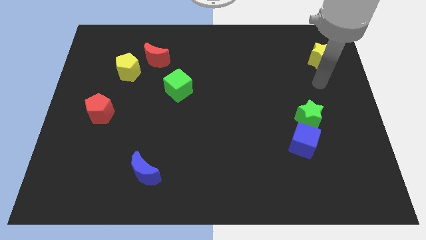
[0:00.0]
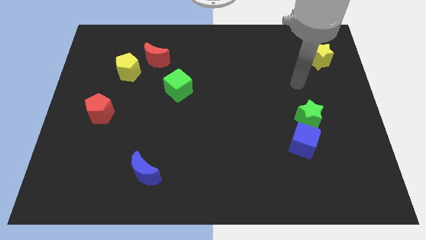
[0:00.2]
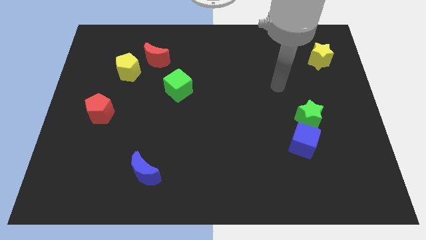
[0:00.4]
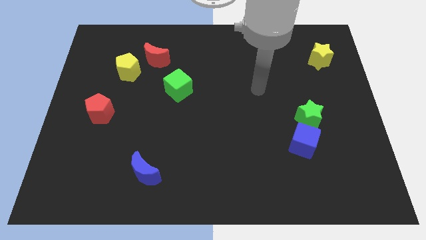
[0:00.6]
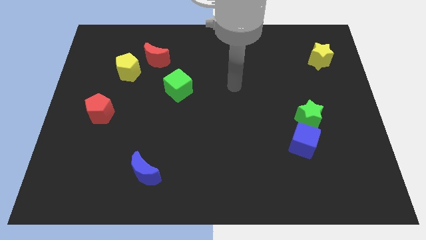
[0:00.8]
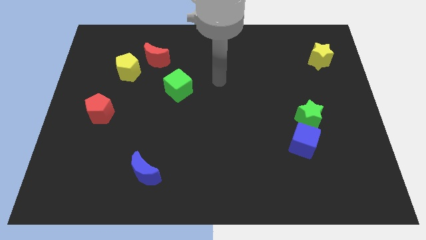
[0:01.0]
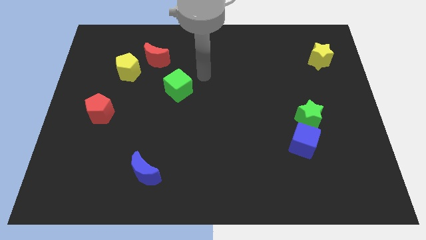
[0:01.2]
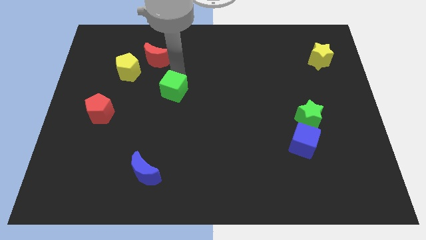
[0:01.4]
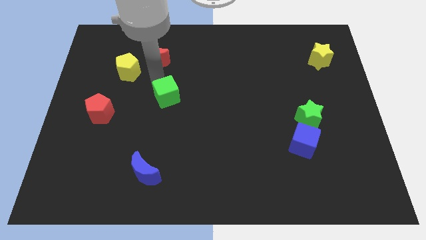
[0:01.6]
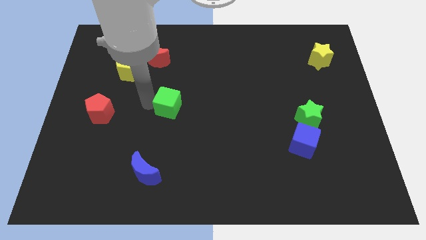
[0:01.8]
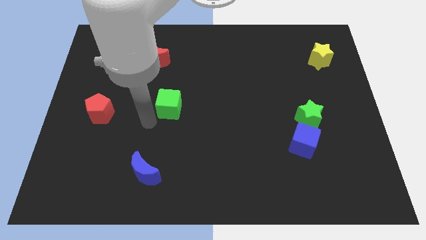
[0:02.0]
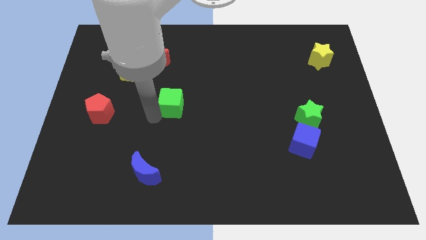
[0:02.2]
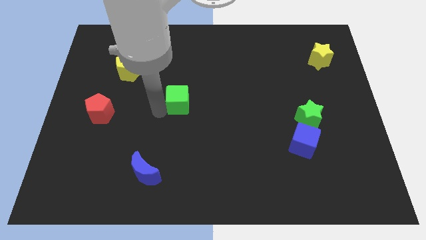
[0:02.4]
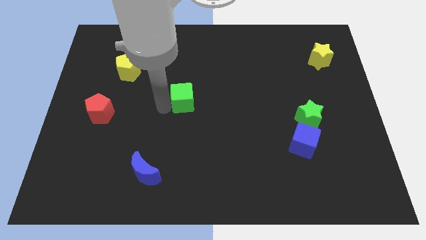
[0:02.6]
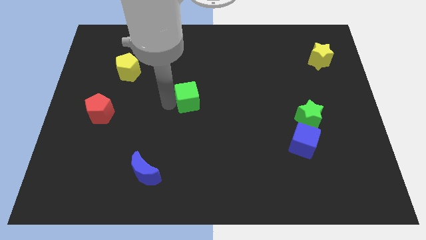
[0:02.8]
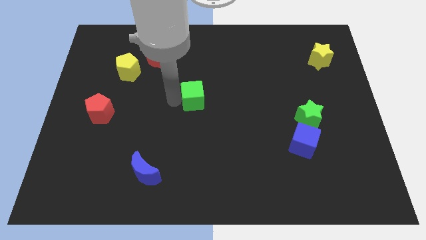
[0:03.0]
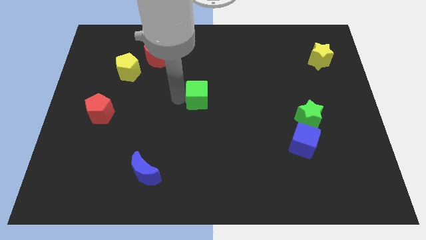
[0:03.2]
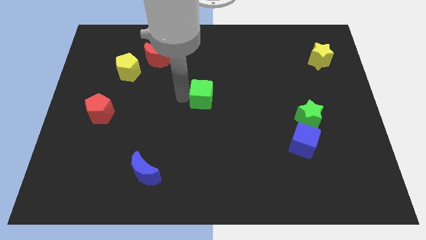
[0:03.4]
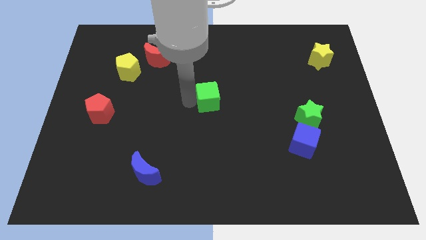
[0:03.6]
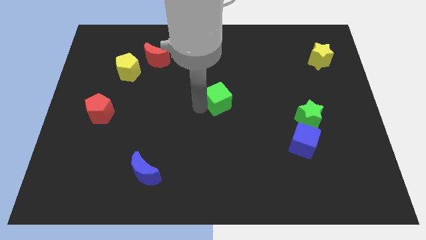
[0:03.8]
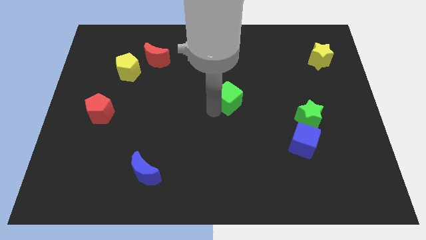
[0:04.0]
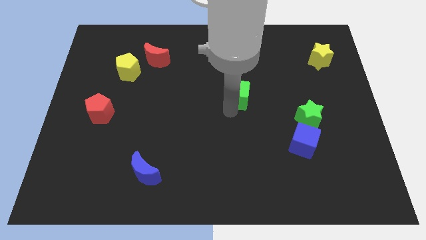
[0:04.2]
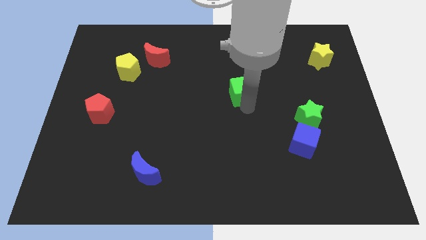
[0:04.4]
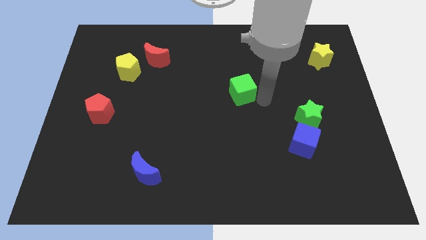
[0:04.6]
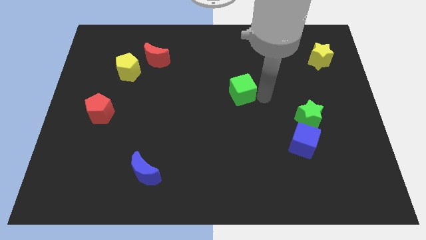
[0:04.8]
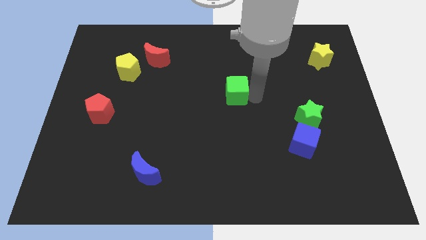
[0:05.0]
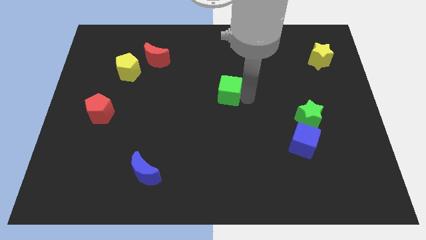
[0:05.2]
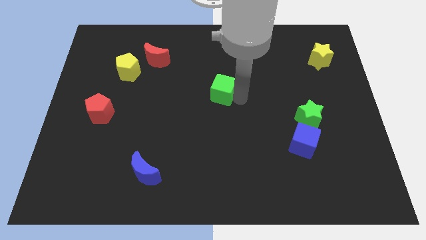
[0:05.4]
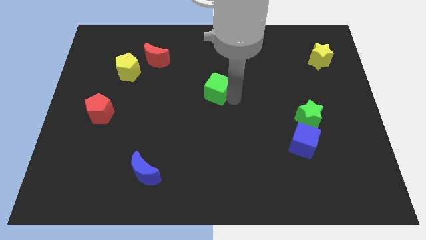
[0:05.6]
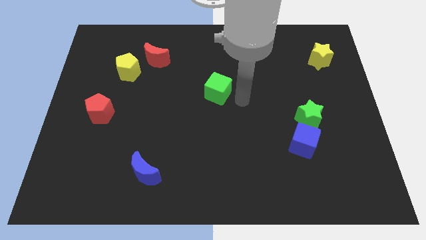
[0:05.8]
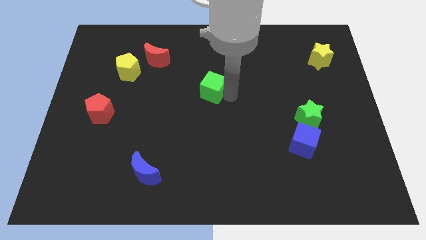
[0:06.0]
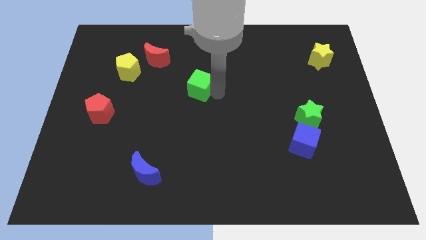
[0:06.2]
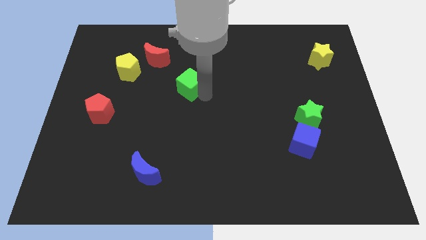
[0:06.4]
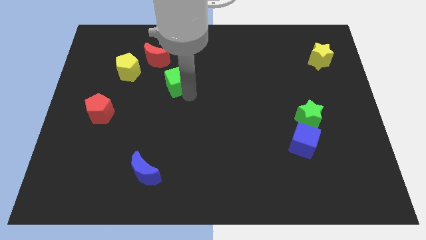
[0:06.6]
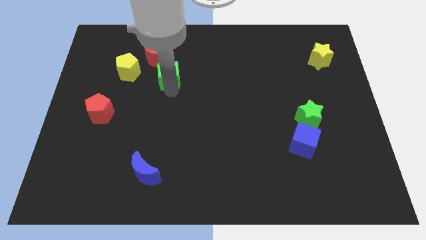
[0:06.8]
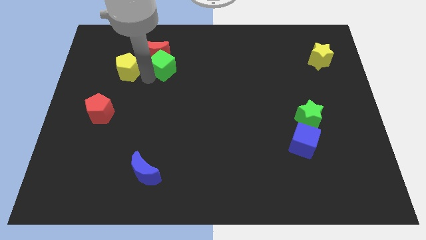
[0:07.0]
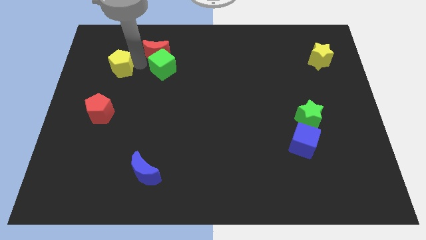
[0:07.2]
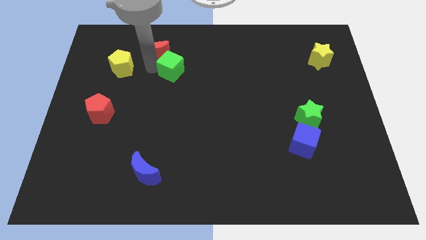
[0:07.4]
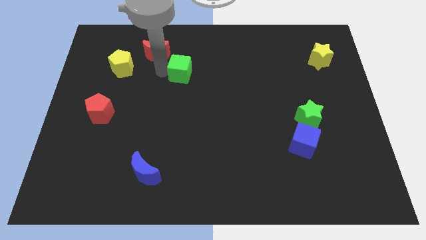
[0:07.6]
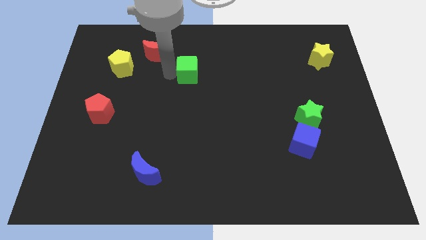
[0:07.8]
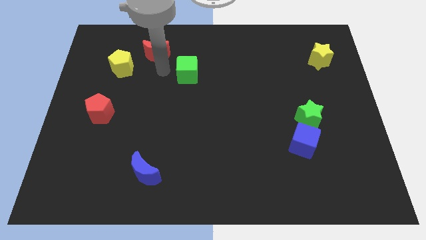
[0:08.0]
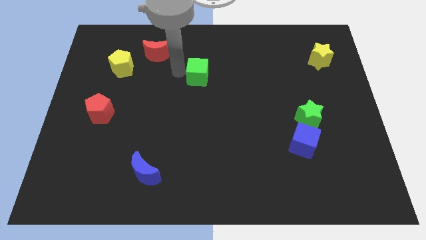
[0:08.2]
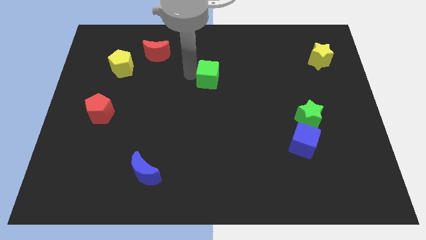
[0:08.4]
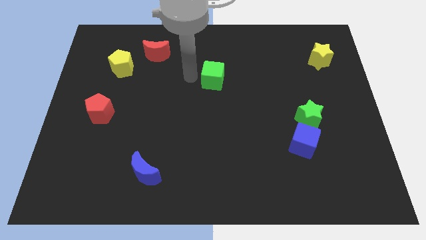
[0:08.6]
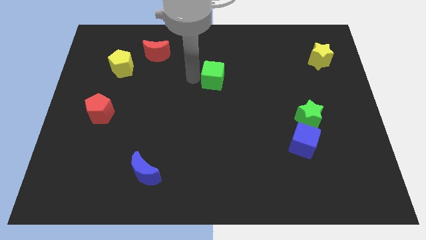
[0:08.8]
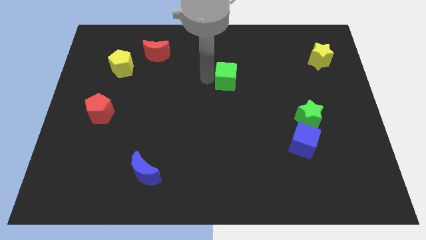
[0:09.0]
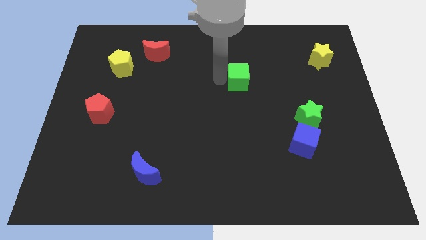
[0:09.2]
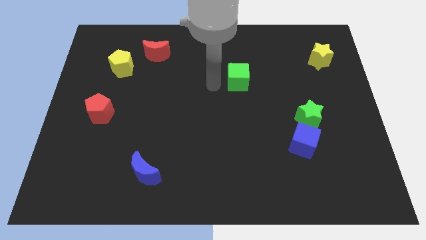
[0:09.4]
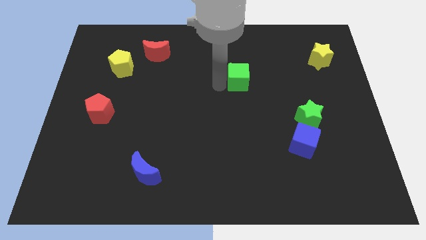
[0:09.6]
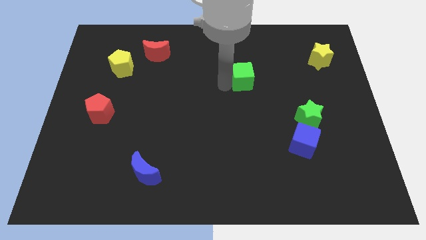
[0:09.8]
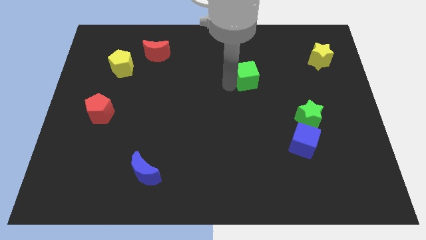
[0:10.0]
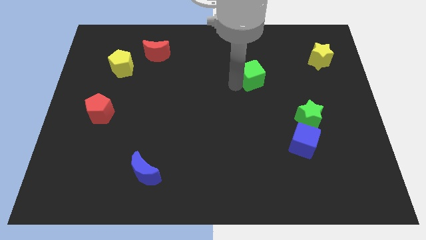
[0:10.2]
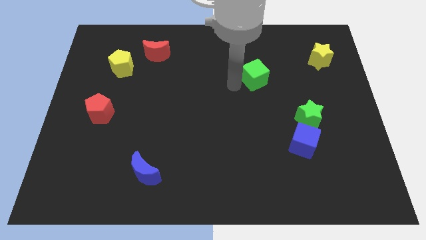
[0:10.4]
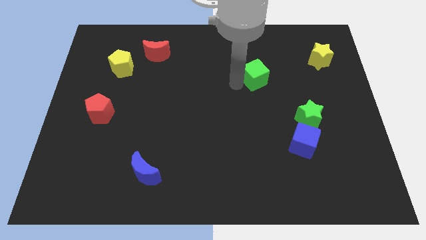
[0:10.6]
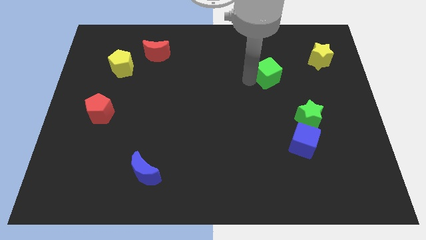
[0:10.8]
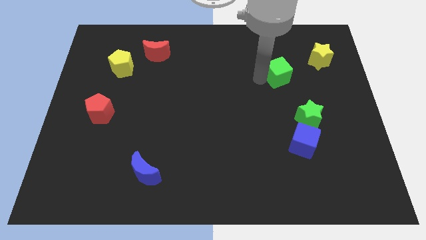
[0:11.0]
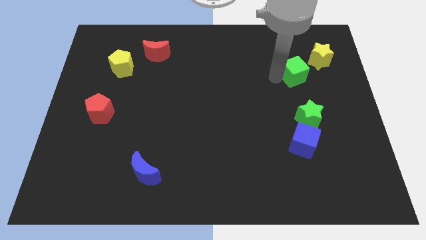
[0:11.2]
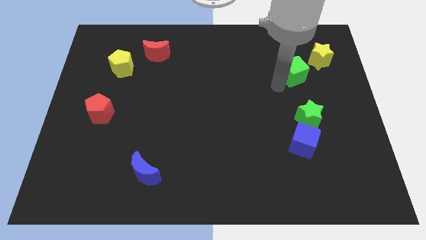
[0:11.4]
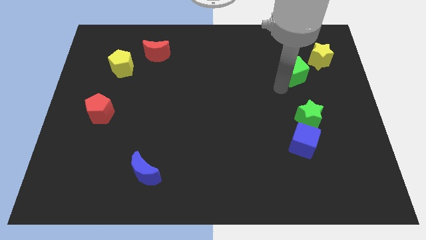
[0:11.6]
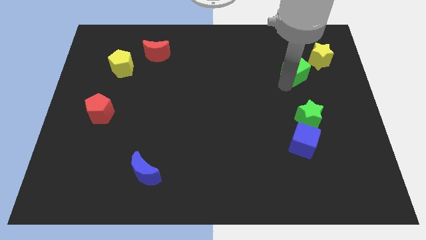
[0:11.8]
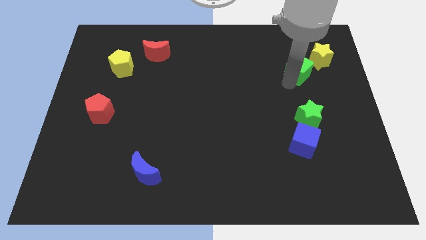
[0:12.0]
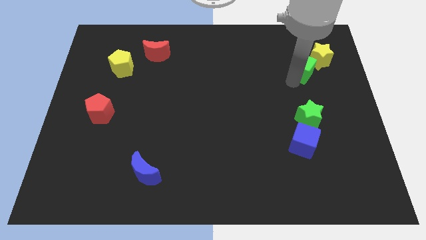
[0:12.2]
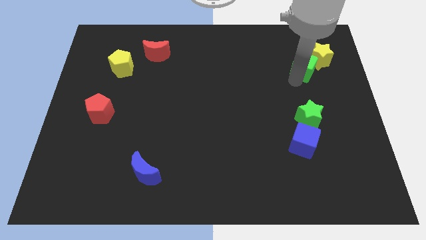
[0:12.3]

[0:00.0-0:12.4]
move the green cube to the yellow star

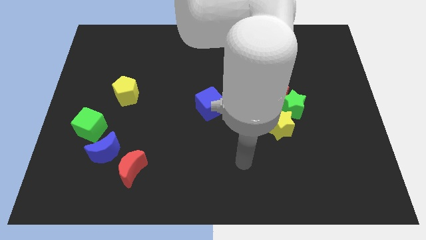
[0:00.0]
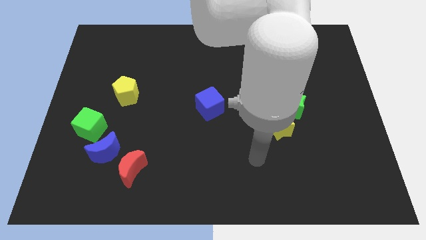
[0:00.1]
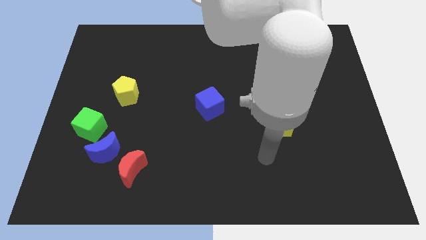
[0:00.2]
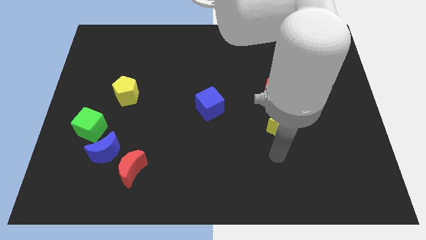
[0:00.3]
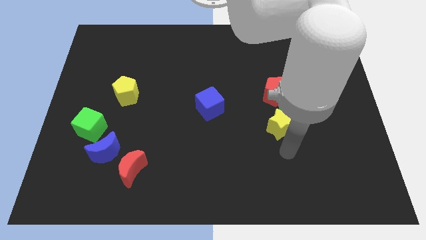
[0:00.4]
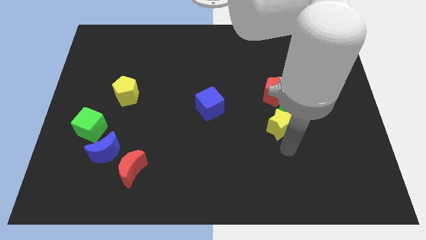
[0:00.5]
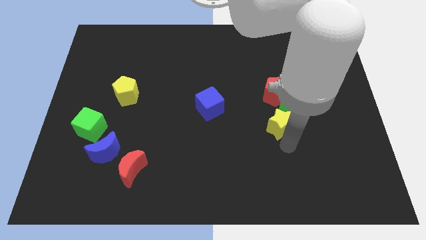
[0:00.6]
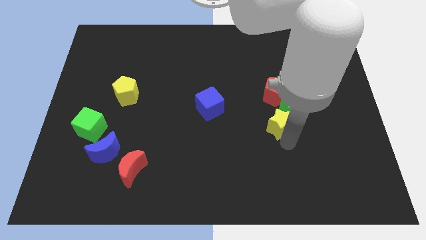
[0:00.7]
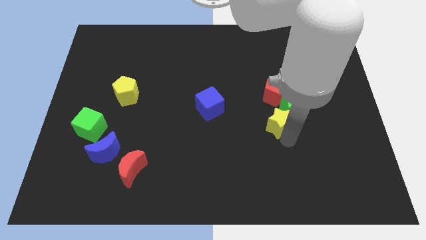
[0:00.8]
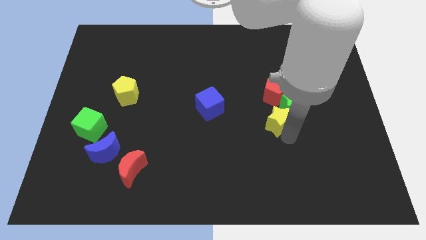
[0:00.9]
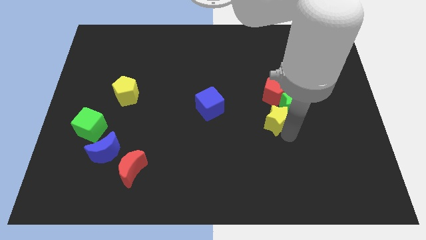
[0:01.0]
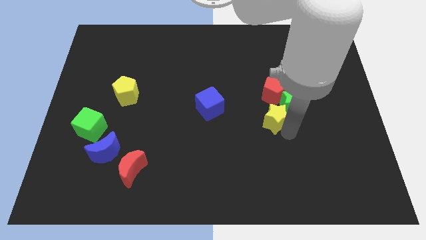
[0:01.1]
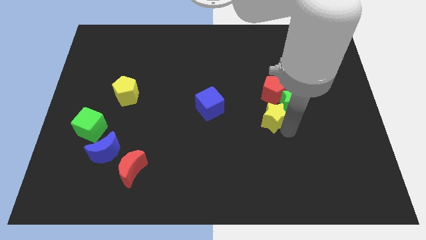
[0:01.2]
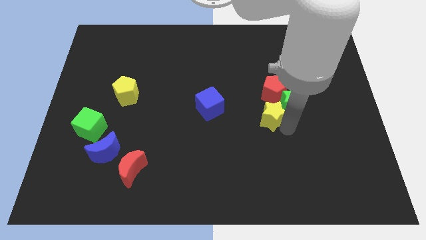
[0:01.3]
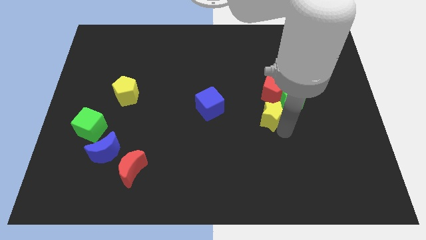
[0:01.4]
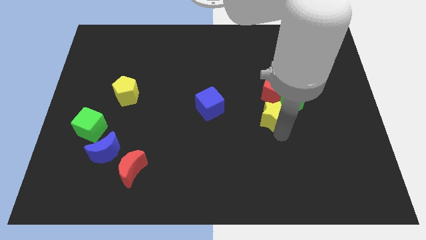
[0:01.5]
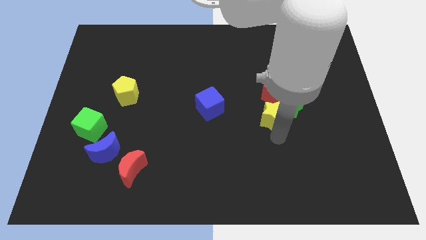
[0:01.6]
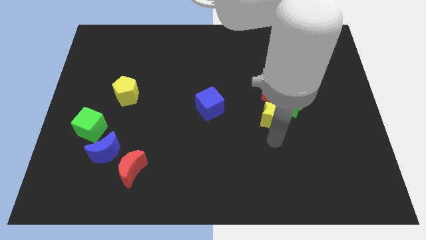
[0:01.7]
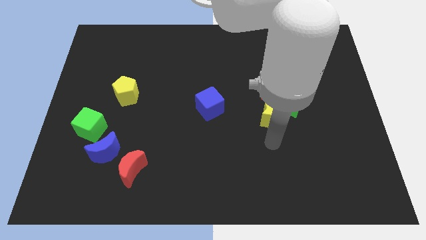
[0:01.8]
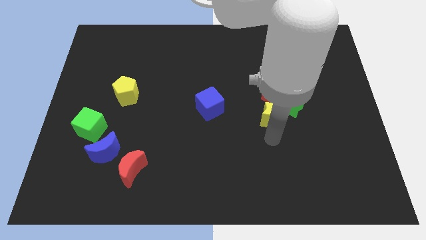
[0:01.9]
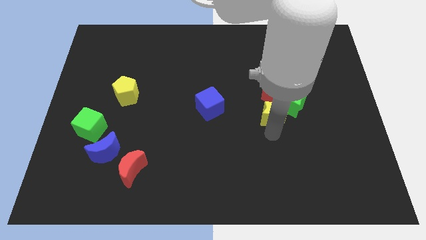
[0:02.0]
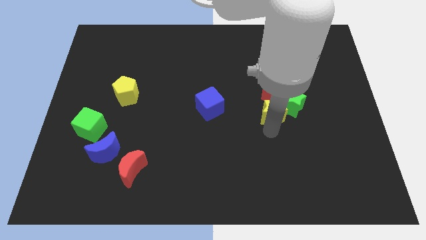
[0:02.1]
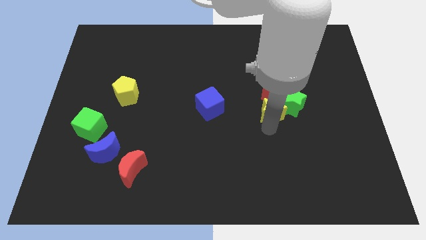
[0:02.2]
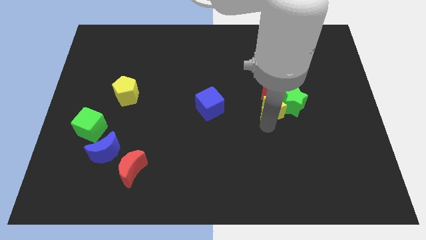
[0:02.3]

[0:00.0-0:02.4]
move the yellow star next to the red pentagon
